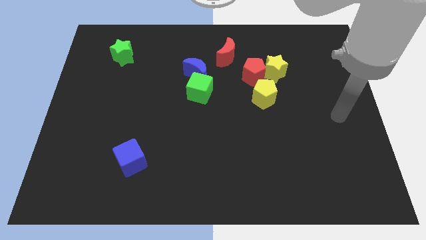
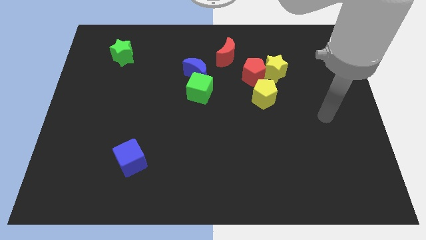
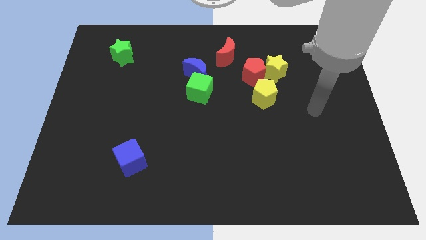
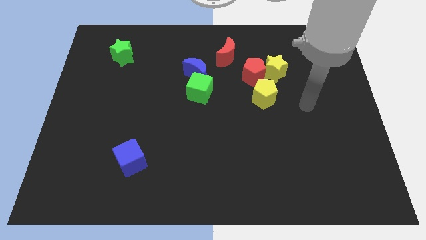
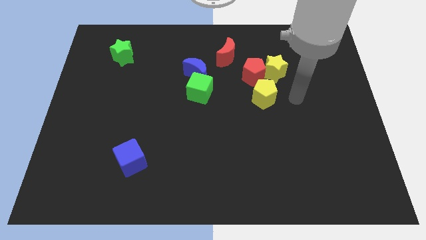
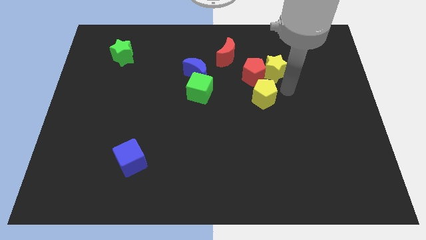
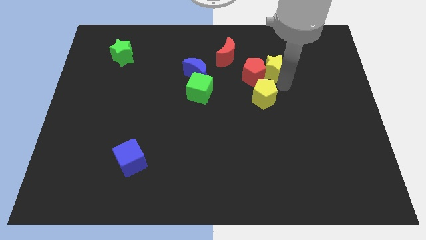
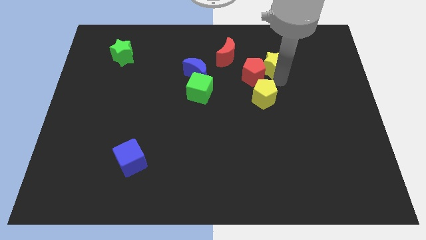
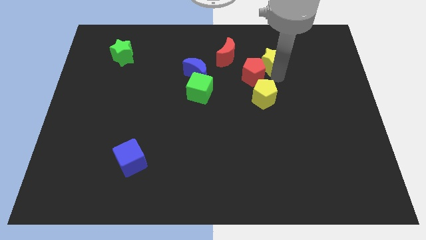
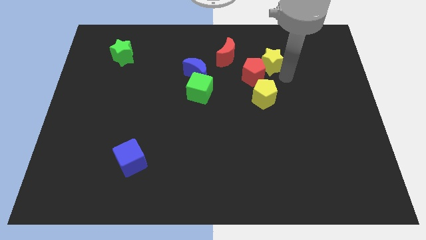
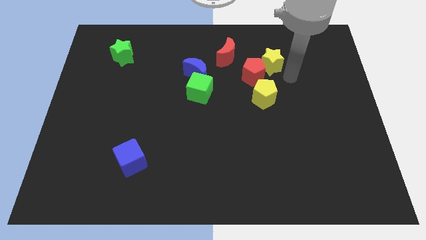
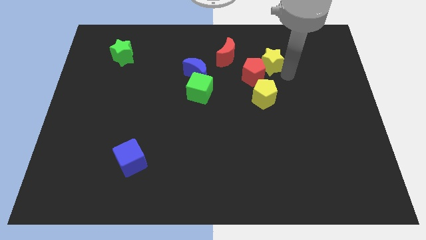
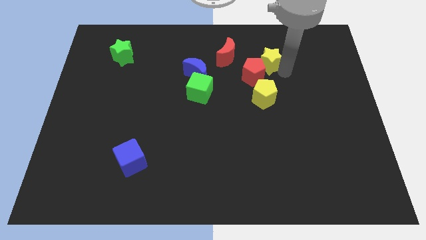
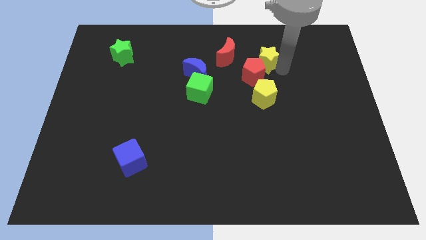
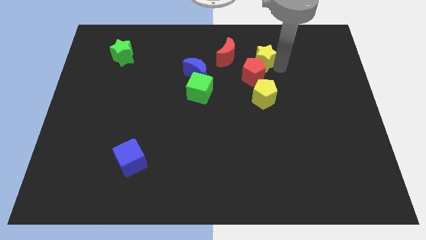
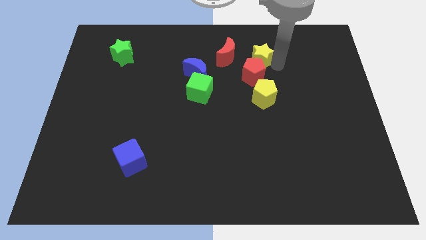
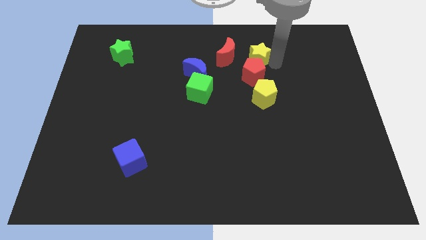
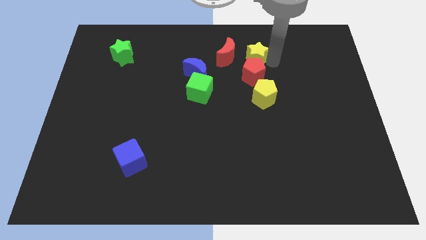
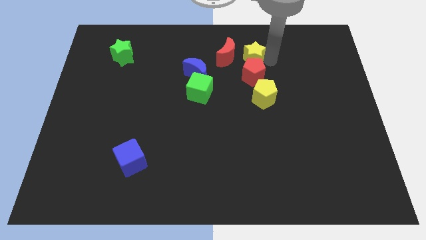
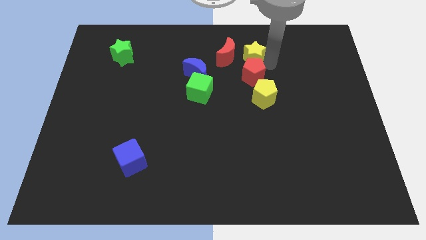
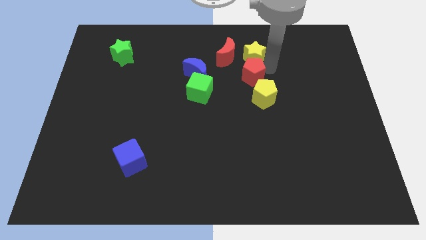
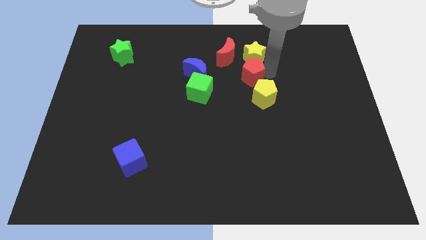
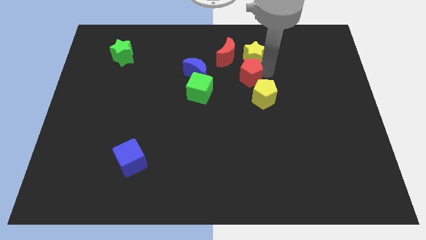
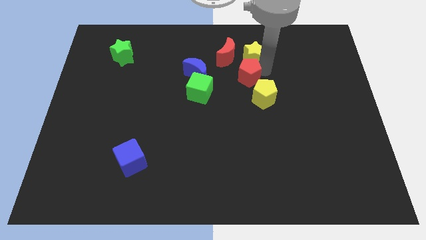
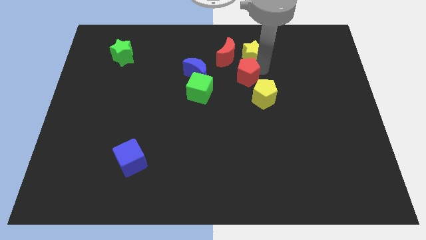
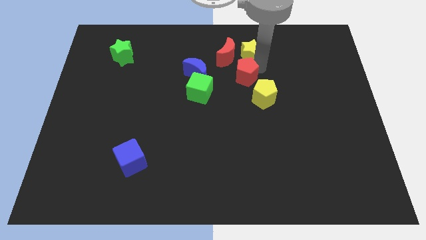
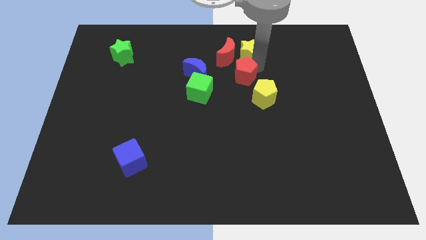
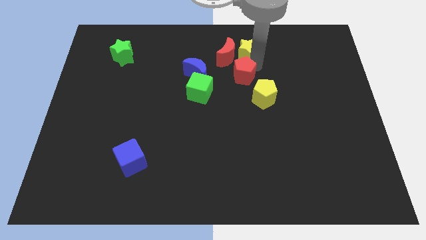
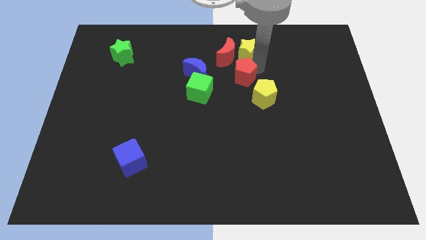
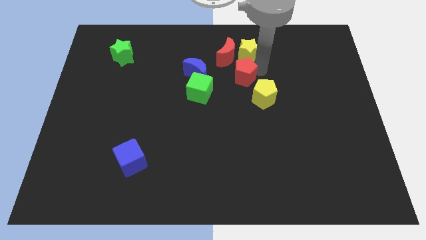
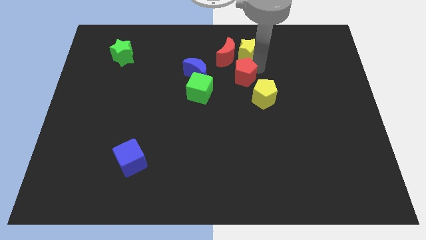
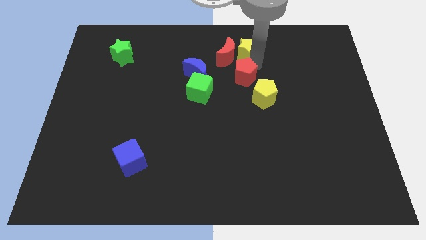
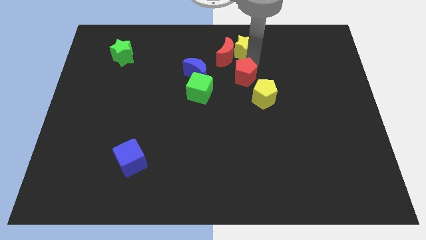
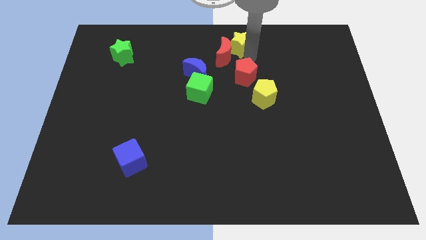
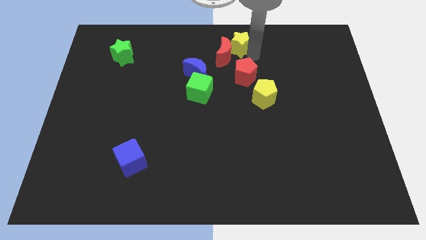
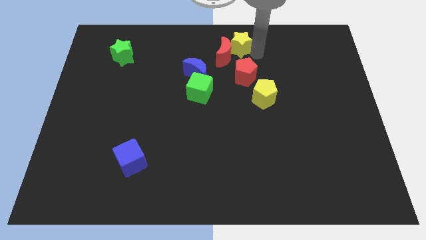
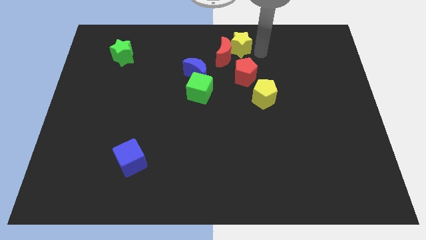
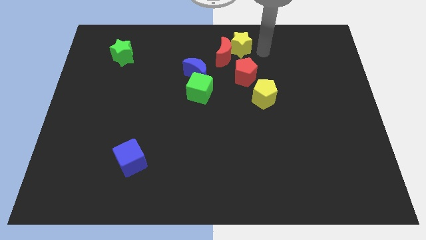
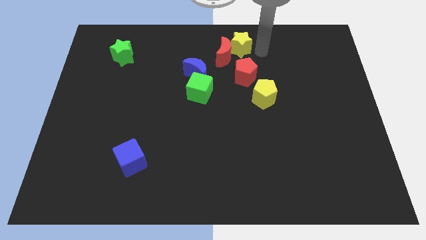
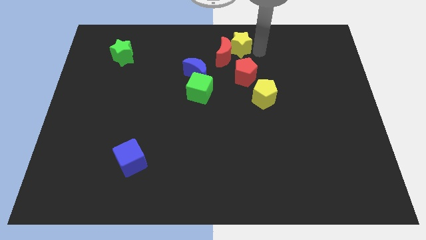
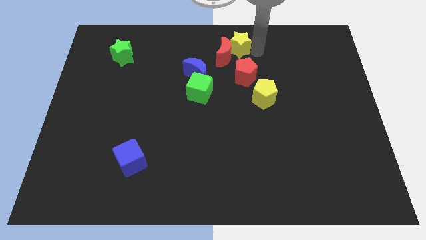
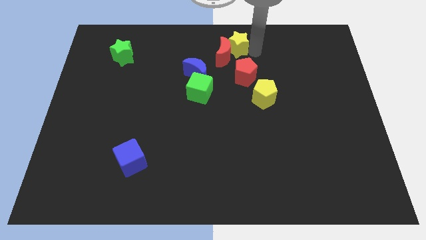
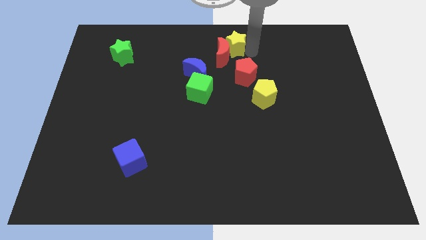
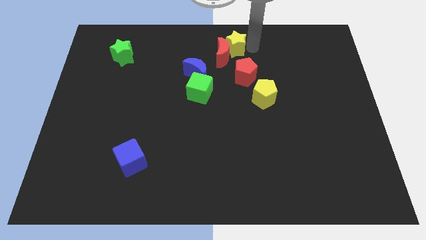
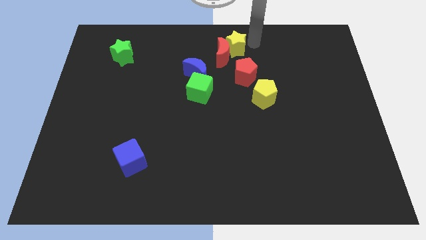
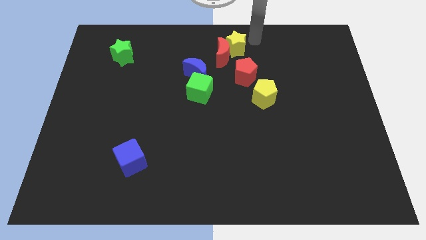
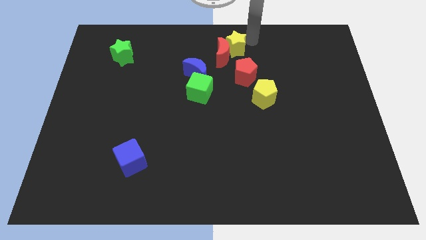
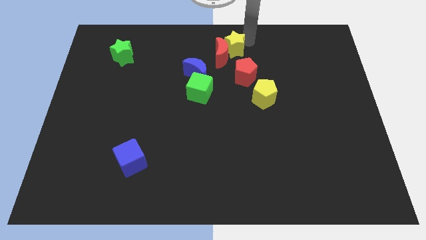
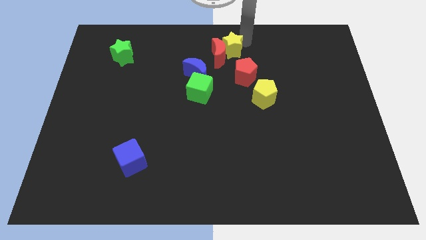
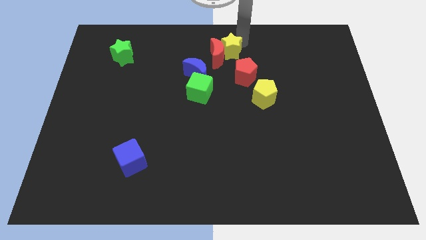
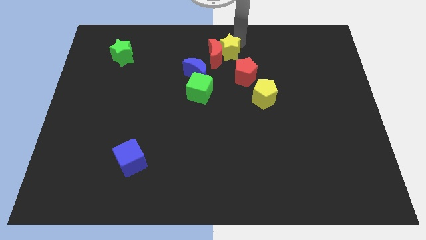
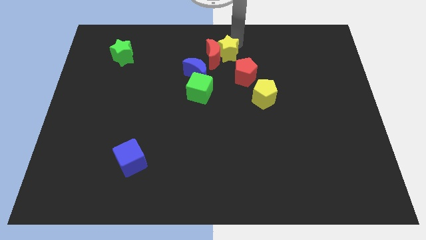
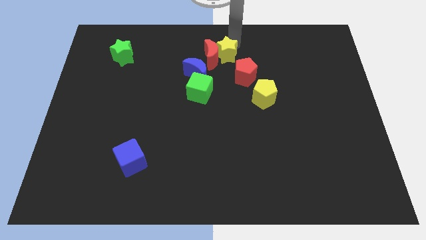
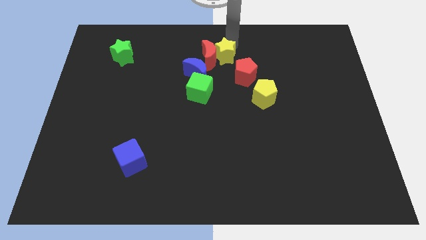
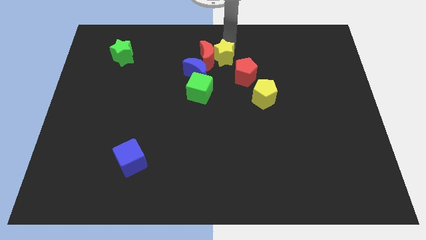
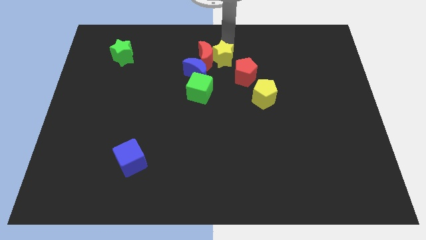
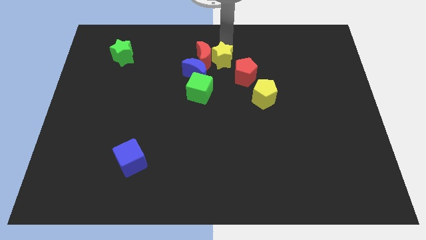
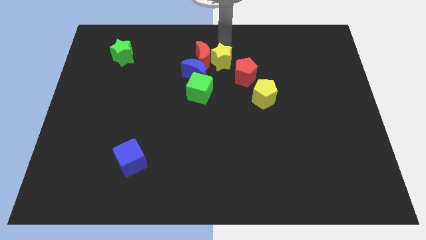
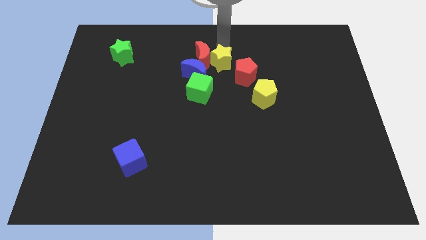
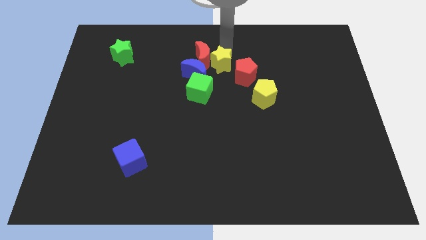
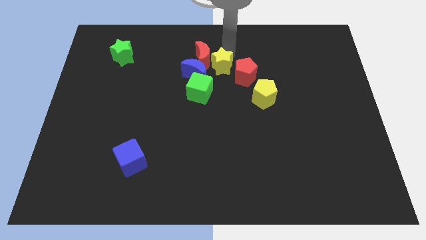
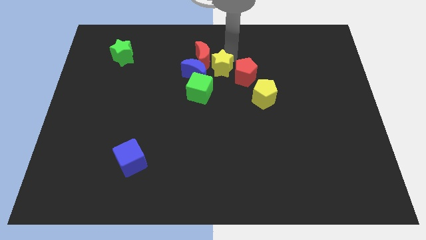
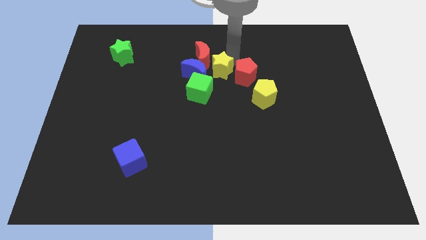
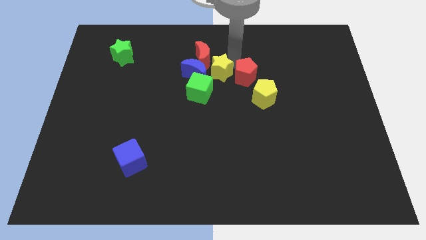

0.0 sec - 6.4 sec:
move the yellow star towards the blue moon
